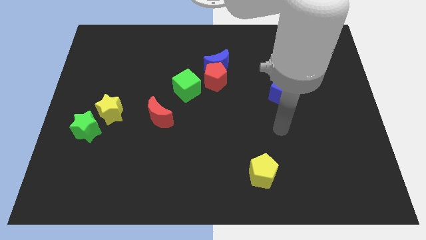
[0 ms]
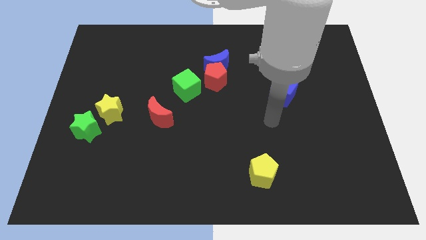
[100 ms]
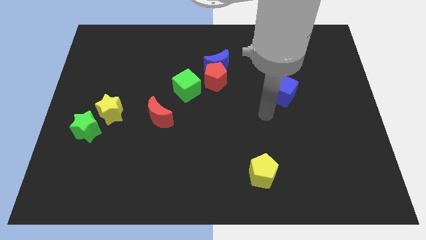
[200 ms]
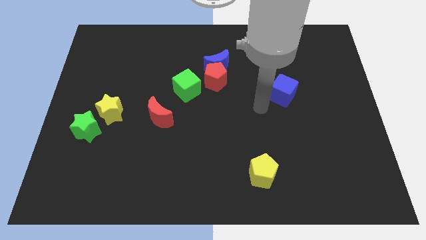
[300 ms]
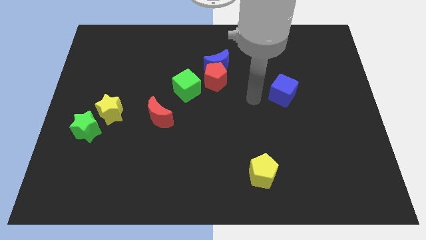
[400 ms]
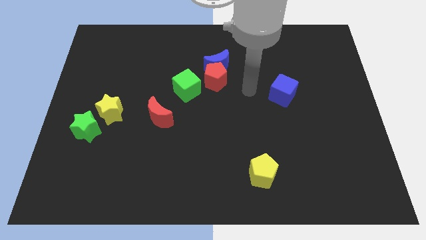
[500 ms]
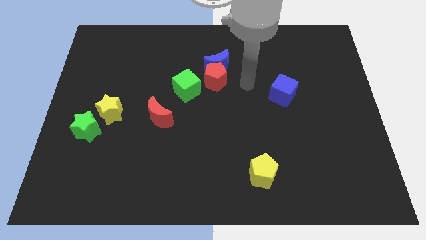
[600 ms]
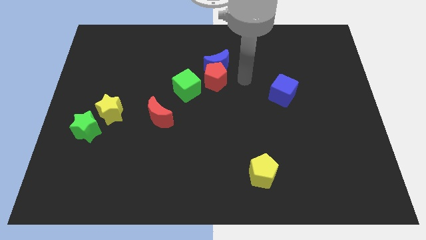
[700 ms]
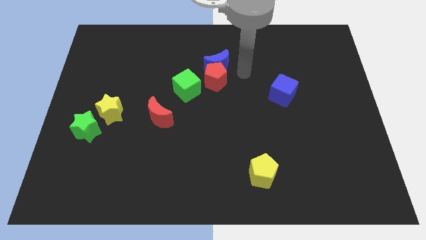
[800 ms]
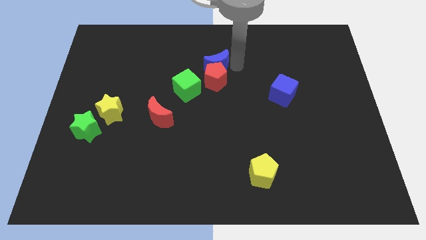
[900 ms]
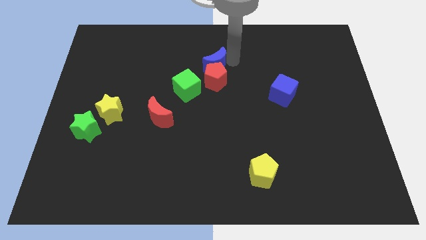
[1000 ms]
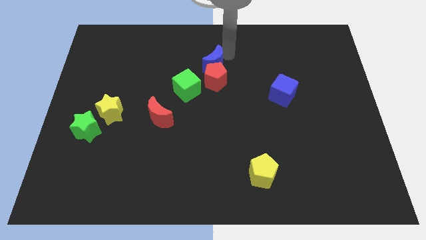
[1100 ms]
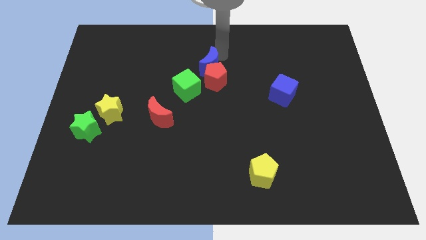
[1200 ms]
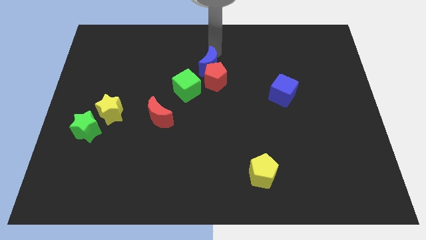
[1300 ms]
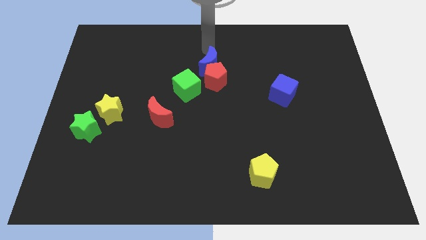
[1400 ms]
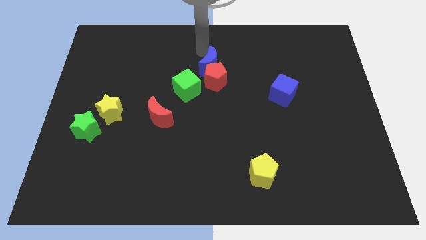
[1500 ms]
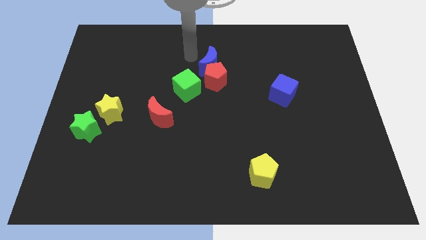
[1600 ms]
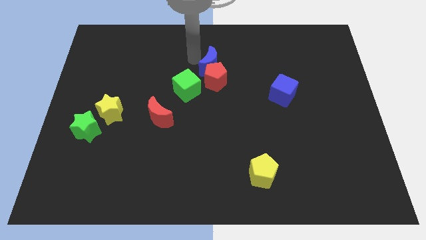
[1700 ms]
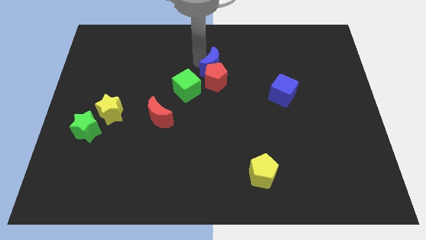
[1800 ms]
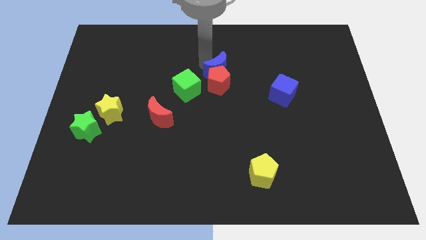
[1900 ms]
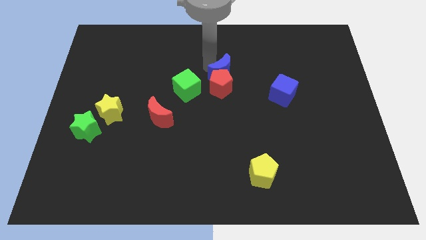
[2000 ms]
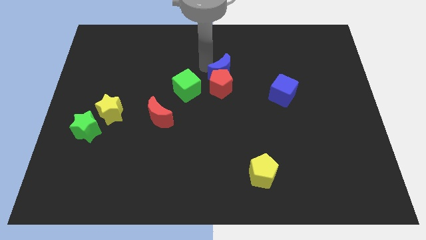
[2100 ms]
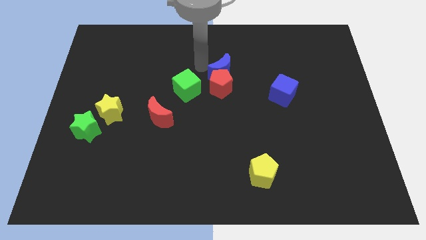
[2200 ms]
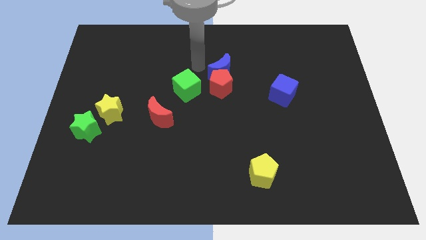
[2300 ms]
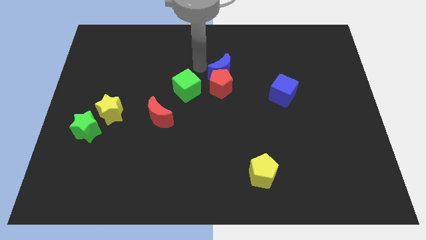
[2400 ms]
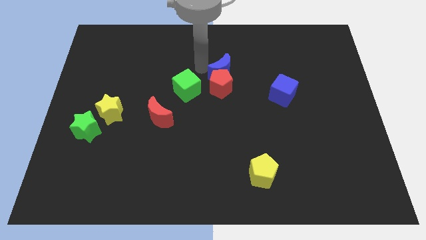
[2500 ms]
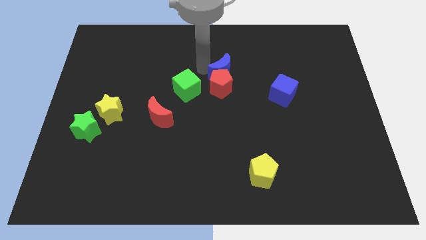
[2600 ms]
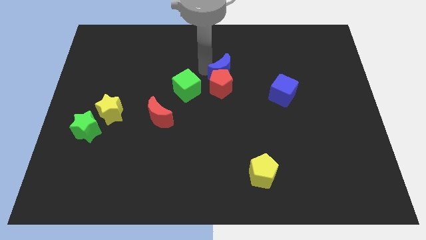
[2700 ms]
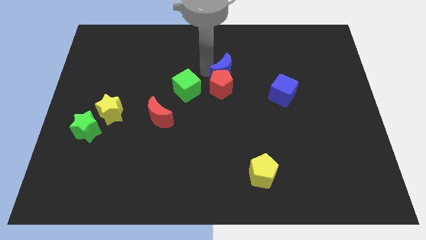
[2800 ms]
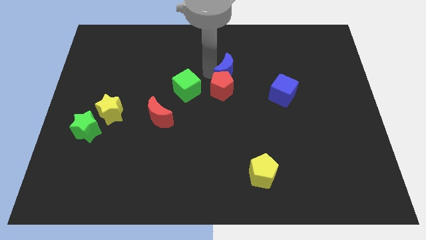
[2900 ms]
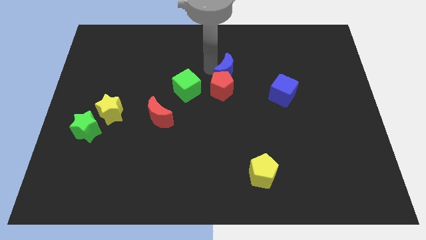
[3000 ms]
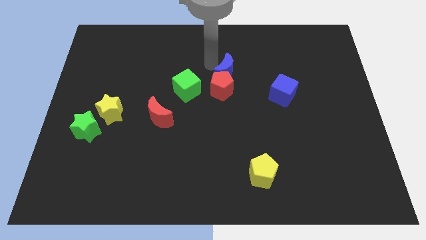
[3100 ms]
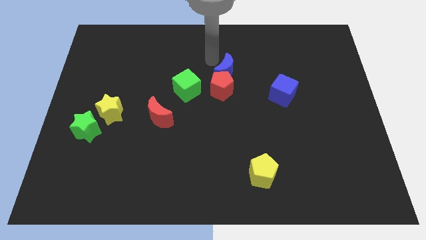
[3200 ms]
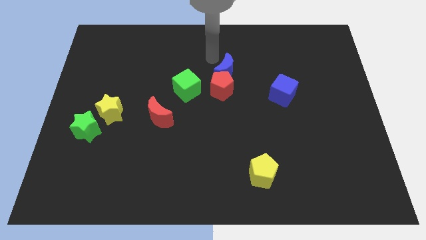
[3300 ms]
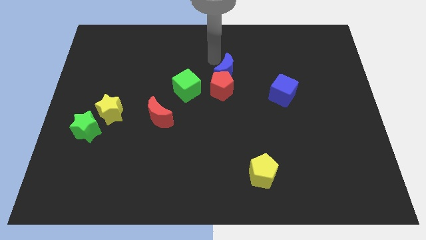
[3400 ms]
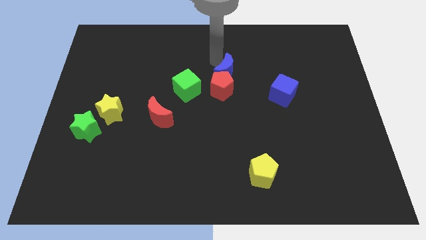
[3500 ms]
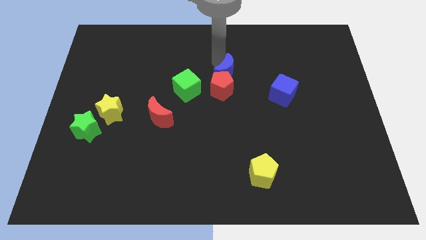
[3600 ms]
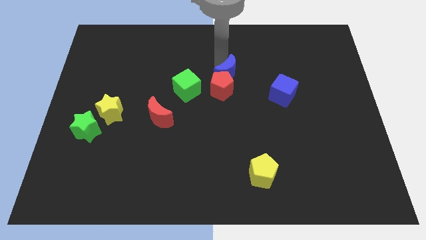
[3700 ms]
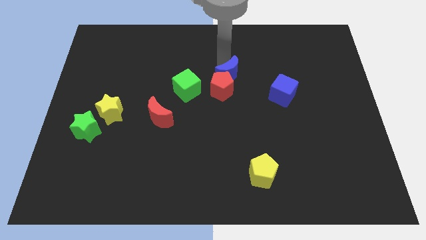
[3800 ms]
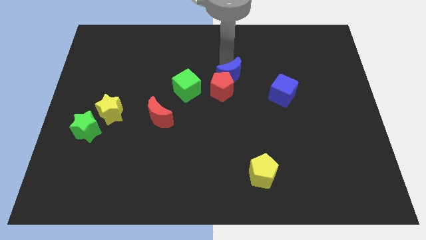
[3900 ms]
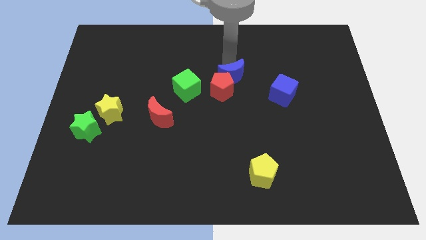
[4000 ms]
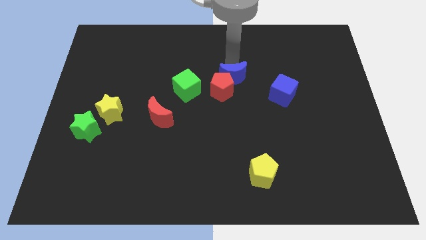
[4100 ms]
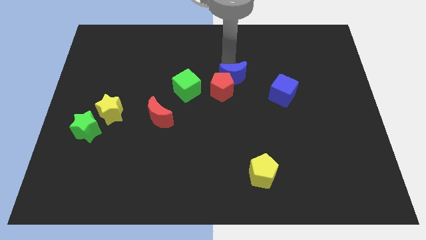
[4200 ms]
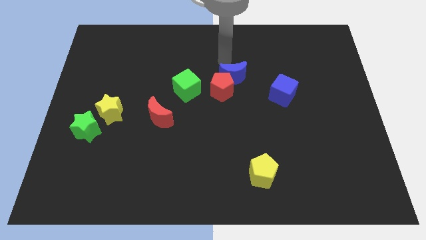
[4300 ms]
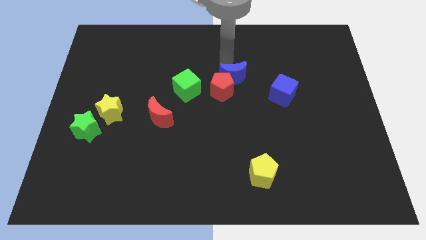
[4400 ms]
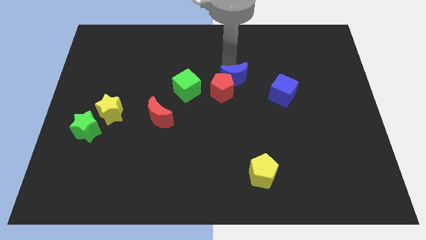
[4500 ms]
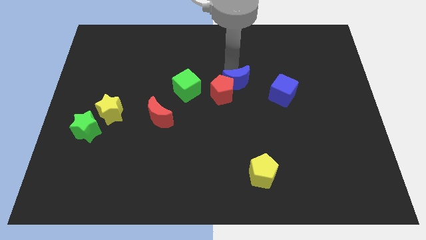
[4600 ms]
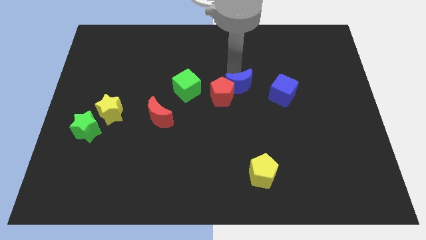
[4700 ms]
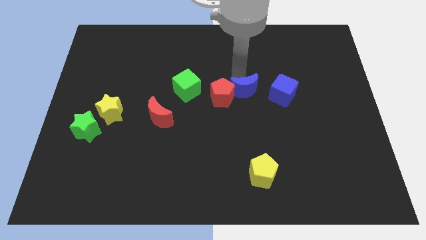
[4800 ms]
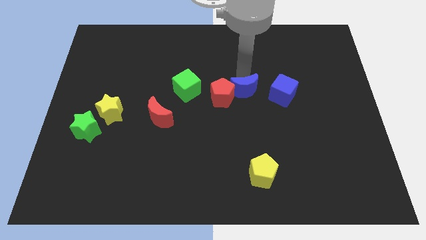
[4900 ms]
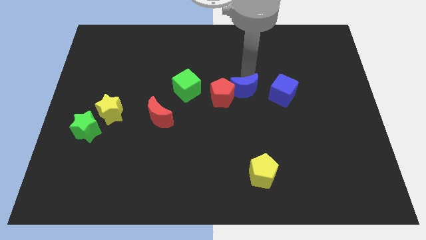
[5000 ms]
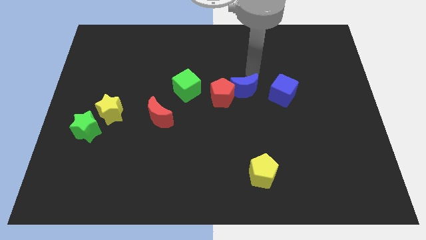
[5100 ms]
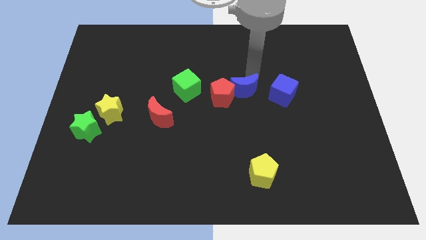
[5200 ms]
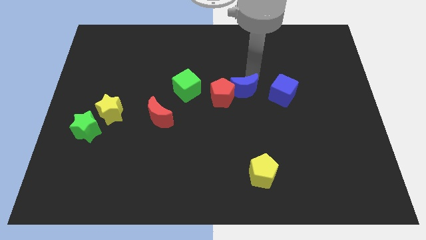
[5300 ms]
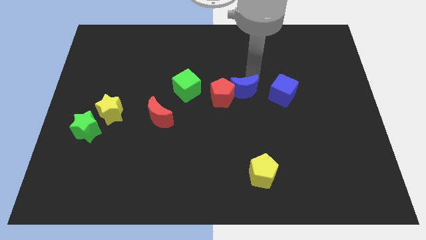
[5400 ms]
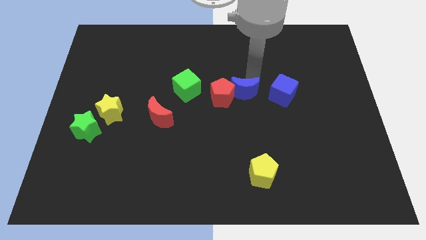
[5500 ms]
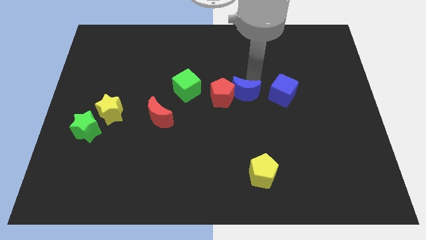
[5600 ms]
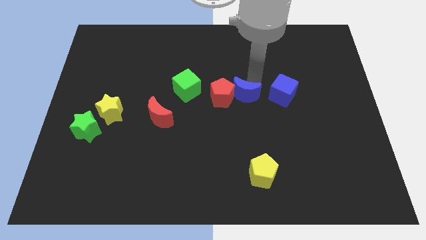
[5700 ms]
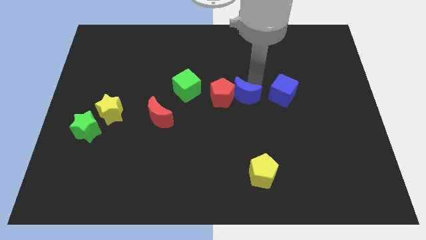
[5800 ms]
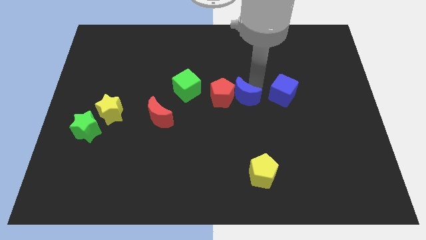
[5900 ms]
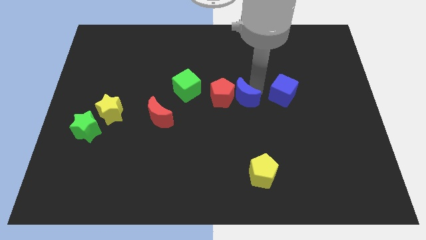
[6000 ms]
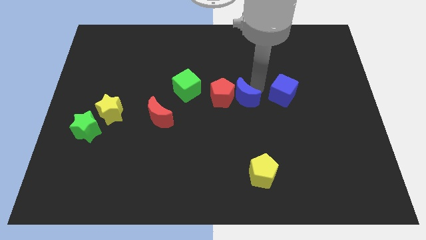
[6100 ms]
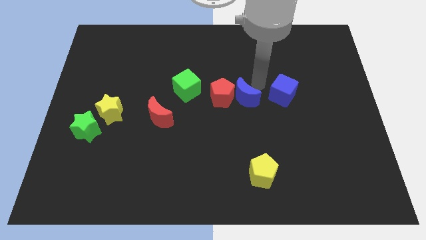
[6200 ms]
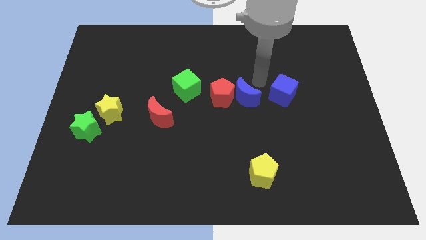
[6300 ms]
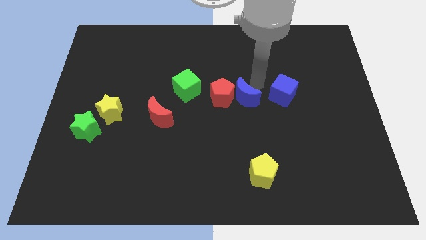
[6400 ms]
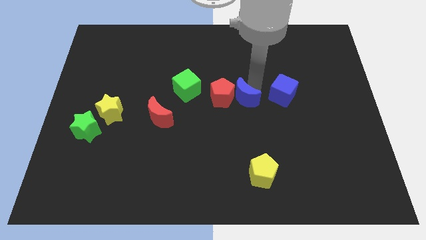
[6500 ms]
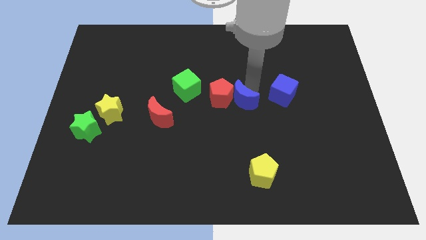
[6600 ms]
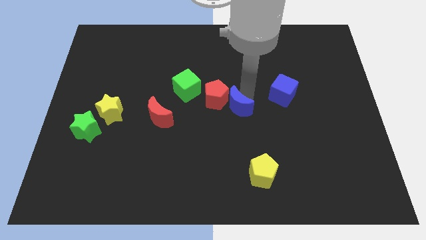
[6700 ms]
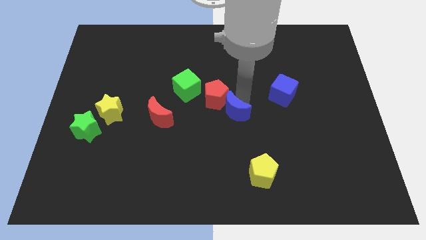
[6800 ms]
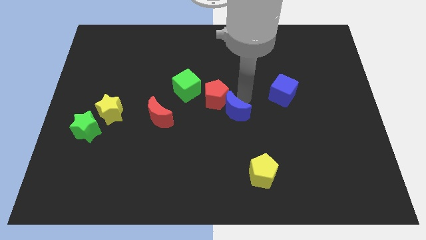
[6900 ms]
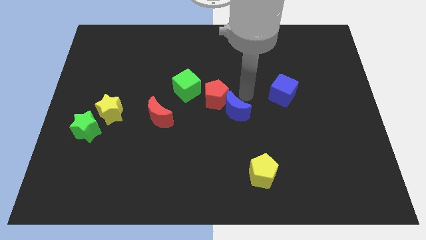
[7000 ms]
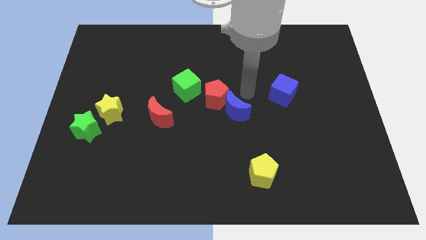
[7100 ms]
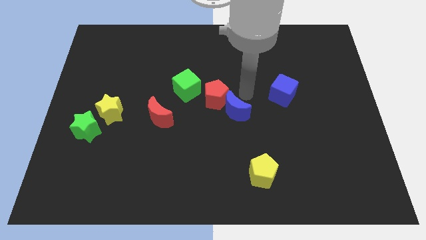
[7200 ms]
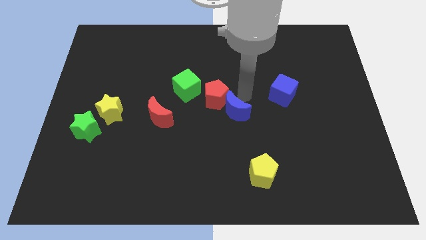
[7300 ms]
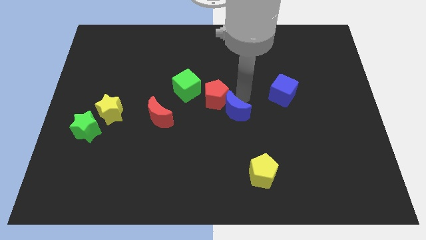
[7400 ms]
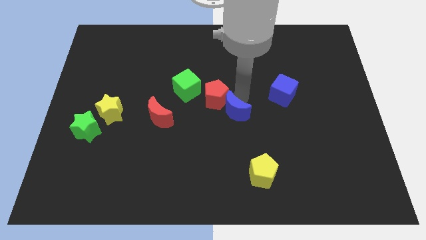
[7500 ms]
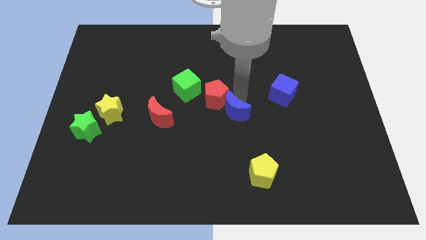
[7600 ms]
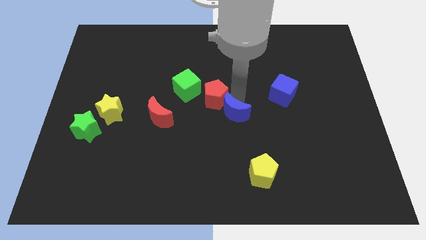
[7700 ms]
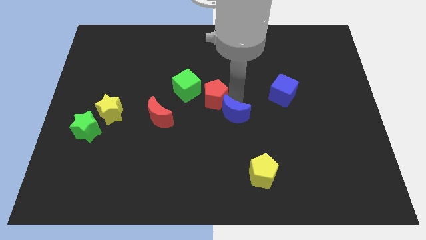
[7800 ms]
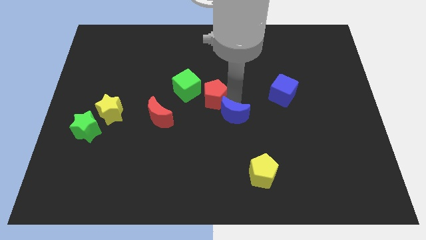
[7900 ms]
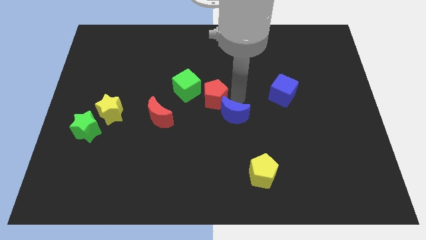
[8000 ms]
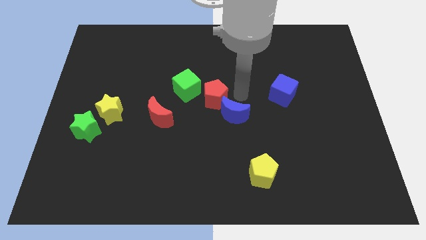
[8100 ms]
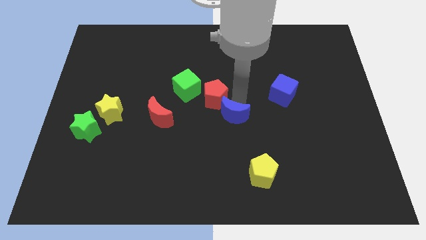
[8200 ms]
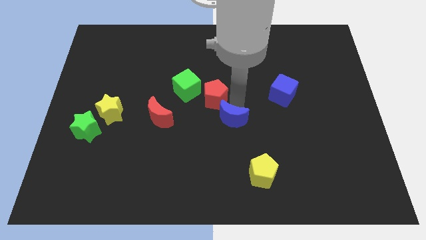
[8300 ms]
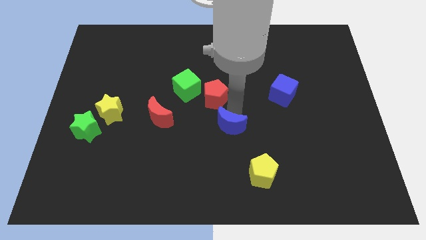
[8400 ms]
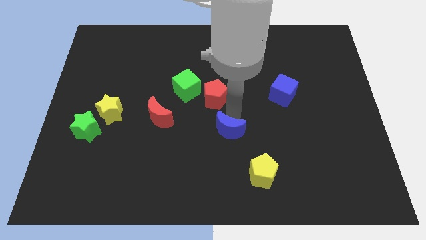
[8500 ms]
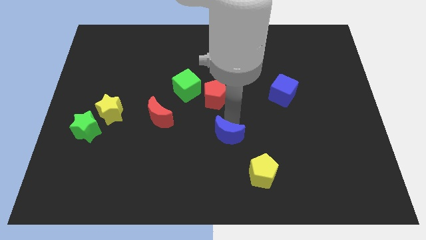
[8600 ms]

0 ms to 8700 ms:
push the blue moon downwards
